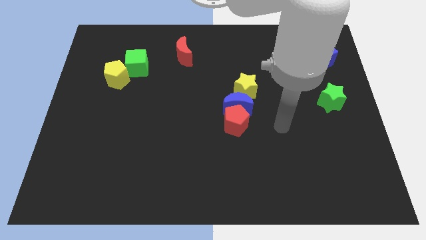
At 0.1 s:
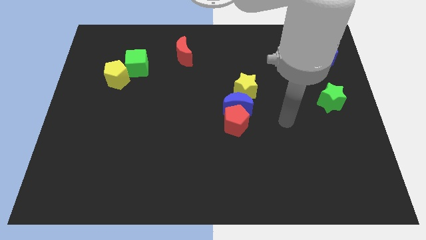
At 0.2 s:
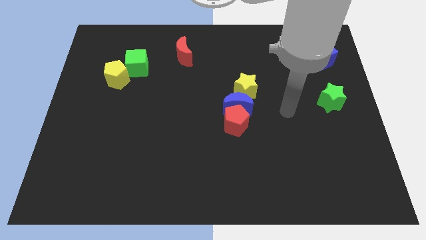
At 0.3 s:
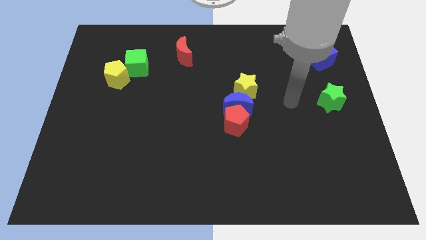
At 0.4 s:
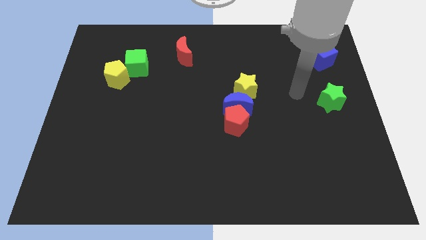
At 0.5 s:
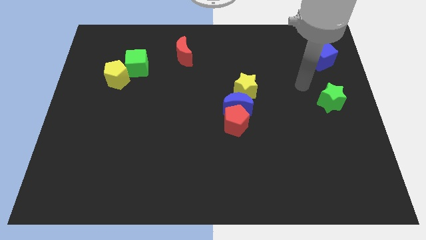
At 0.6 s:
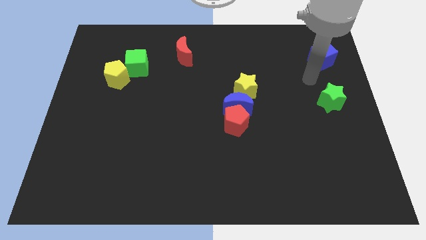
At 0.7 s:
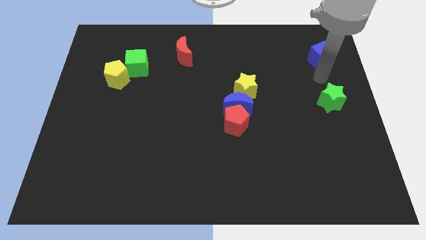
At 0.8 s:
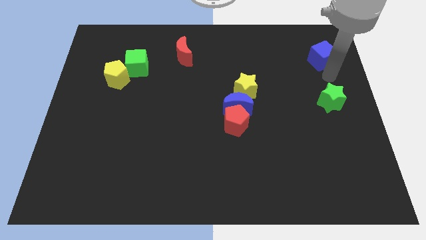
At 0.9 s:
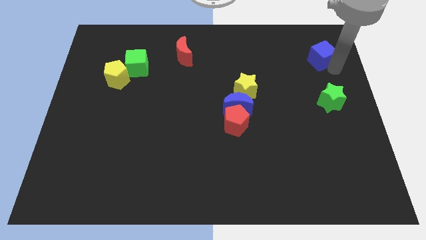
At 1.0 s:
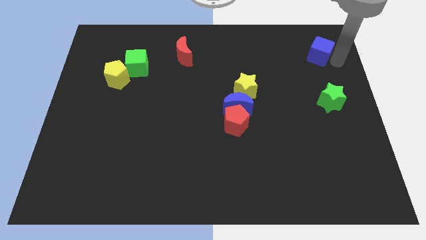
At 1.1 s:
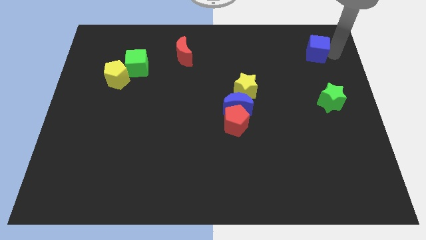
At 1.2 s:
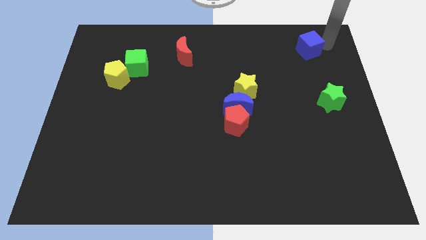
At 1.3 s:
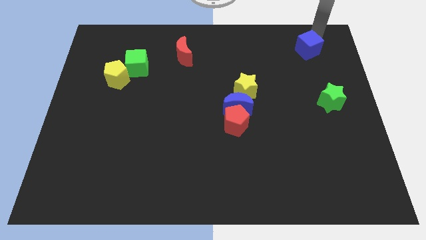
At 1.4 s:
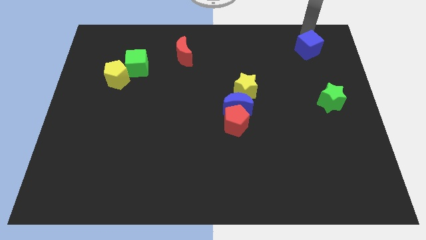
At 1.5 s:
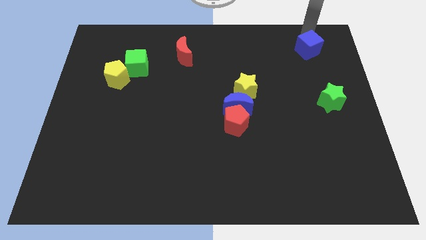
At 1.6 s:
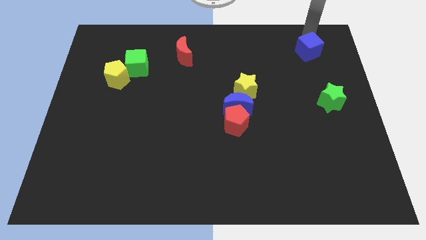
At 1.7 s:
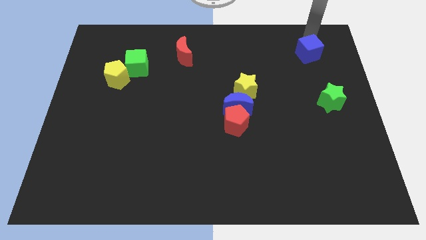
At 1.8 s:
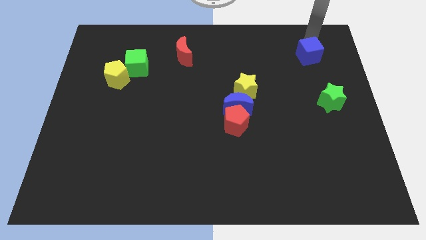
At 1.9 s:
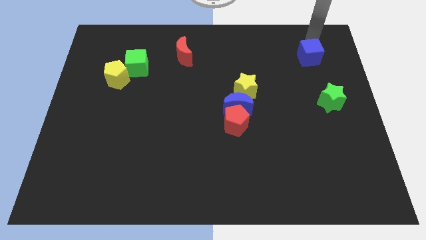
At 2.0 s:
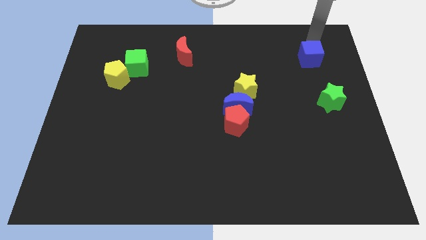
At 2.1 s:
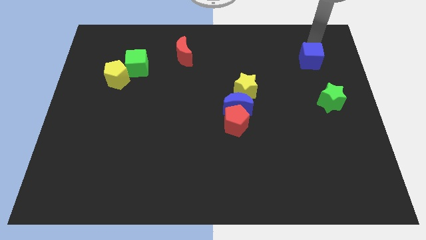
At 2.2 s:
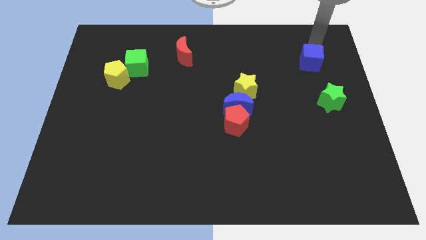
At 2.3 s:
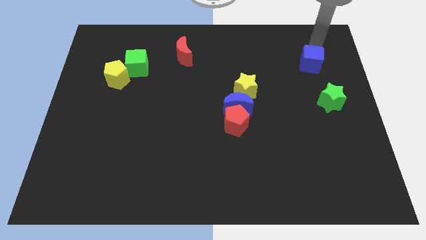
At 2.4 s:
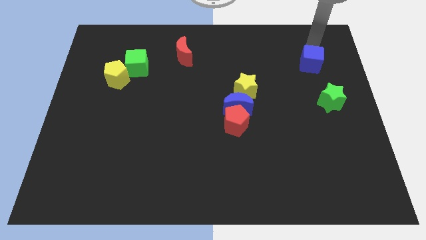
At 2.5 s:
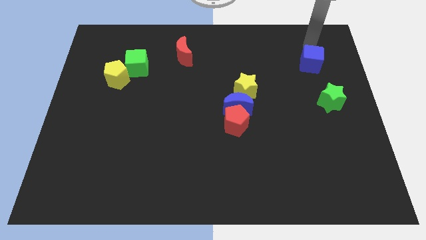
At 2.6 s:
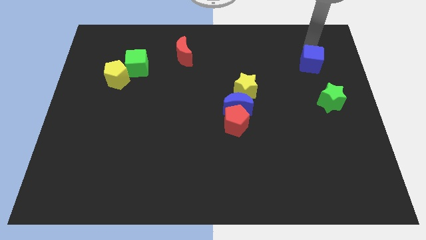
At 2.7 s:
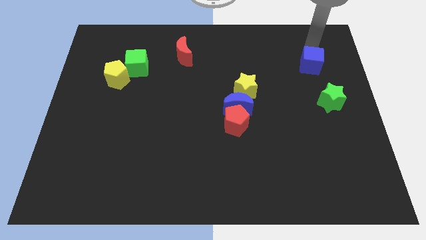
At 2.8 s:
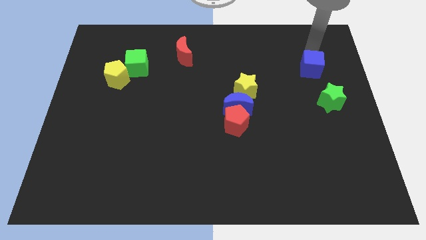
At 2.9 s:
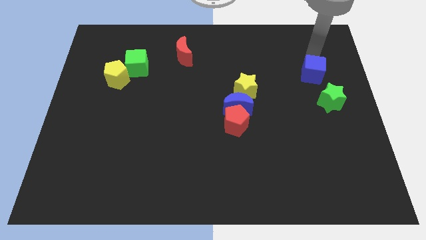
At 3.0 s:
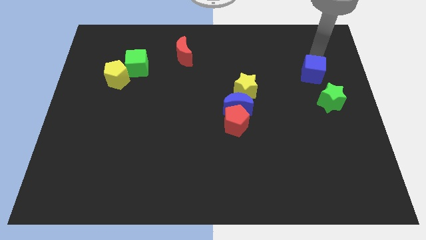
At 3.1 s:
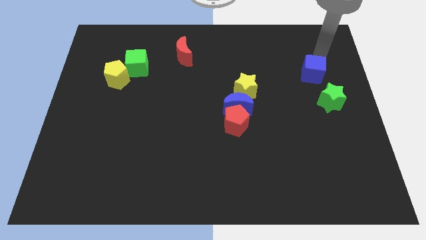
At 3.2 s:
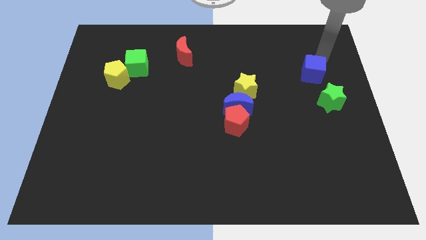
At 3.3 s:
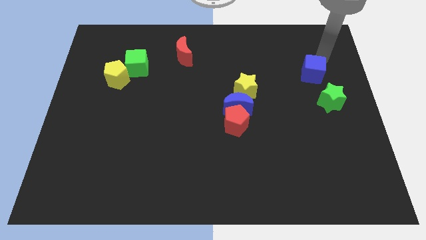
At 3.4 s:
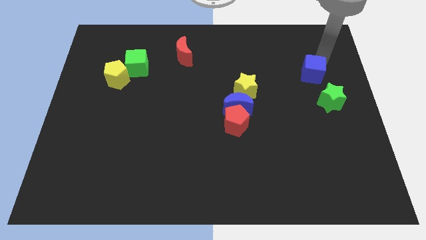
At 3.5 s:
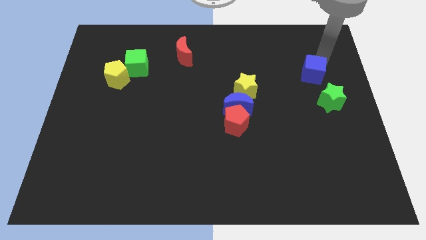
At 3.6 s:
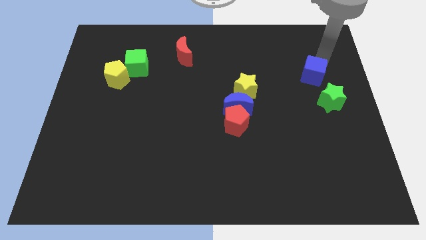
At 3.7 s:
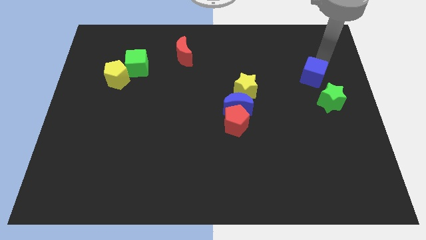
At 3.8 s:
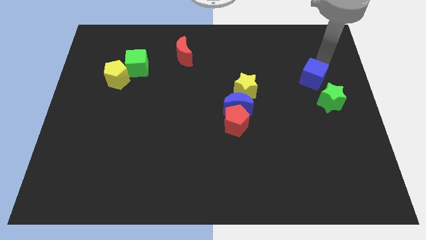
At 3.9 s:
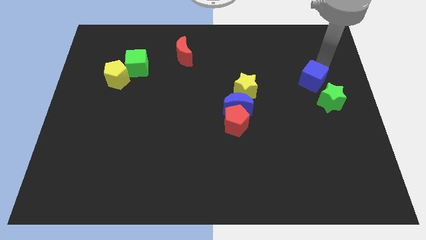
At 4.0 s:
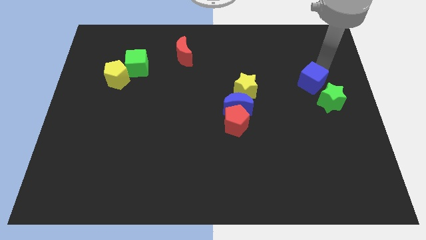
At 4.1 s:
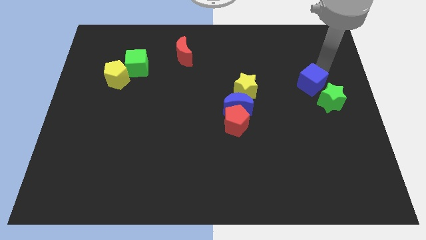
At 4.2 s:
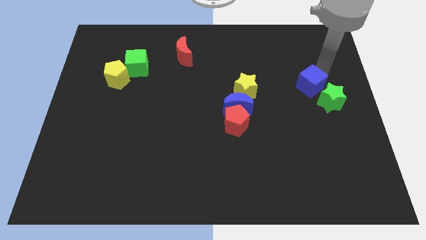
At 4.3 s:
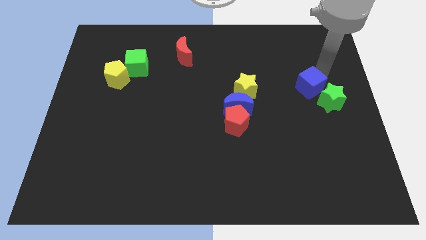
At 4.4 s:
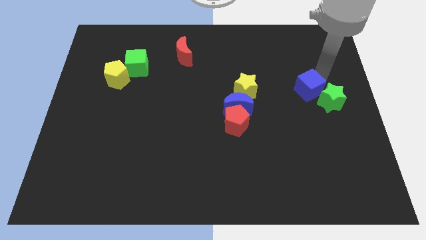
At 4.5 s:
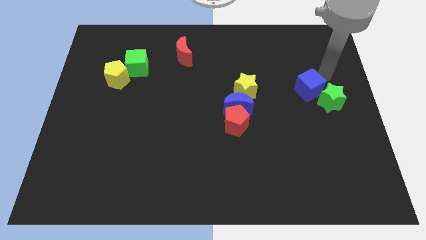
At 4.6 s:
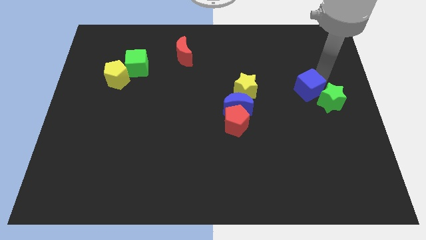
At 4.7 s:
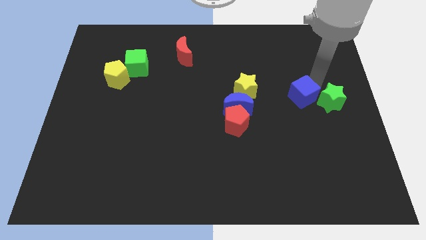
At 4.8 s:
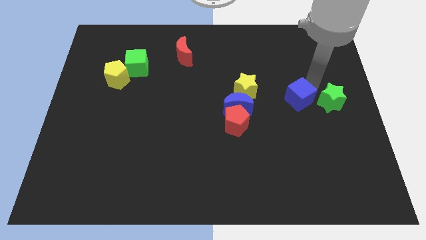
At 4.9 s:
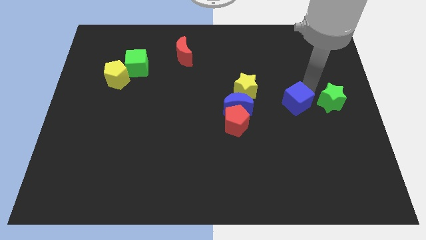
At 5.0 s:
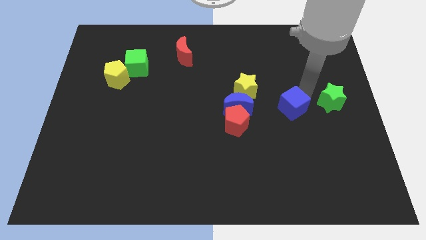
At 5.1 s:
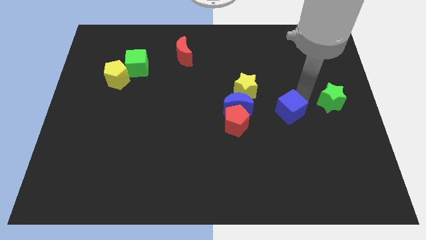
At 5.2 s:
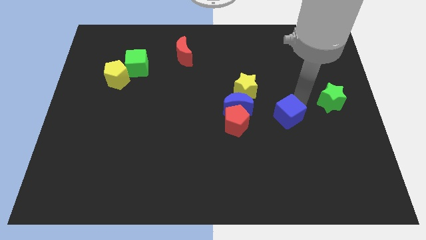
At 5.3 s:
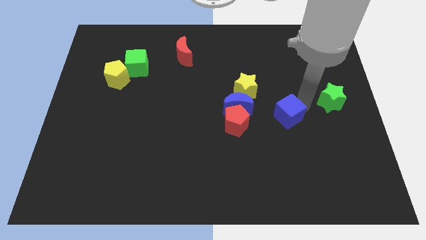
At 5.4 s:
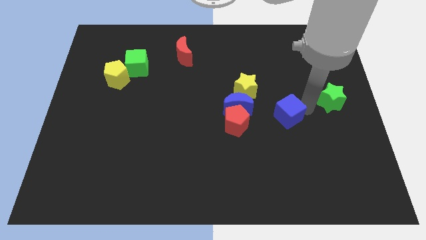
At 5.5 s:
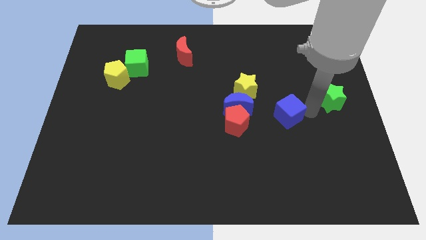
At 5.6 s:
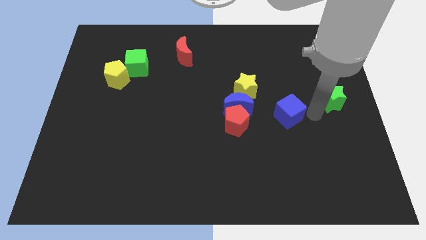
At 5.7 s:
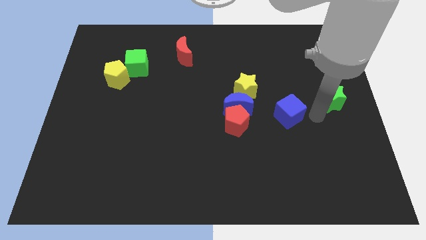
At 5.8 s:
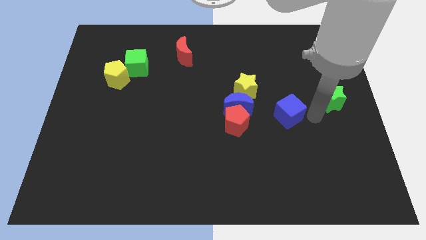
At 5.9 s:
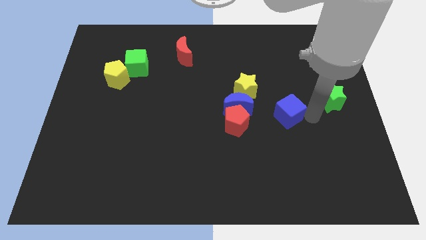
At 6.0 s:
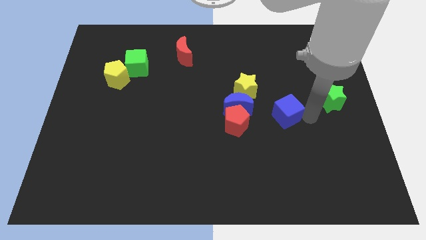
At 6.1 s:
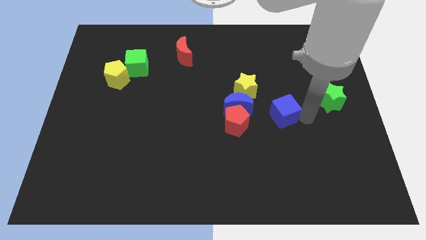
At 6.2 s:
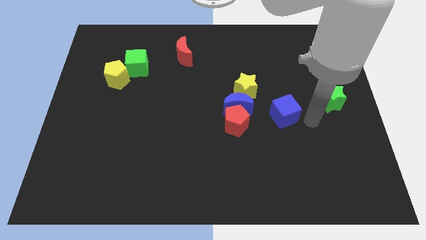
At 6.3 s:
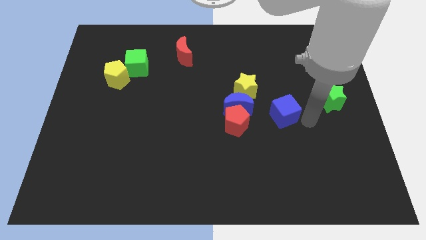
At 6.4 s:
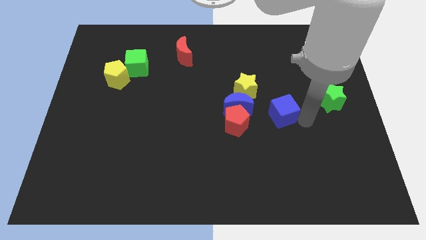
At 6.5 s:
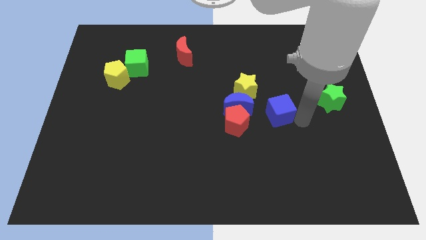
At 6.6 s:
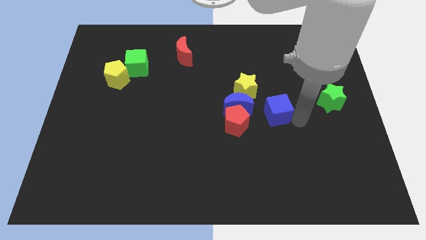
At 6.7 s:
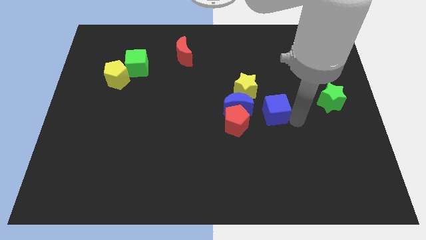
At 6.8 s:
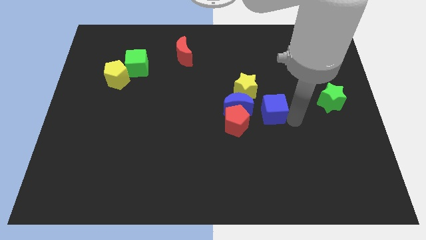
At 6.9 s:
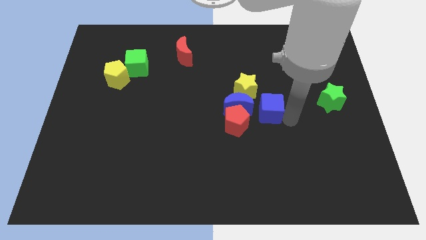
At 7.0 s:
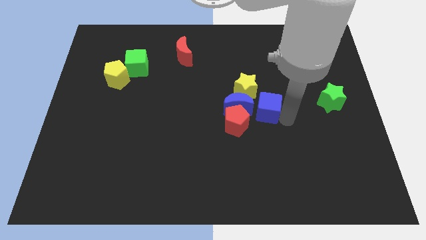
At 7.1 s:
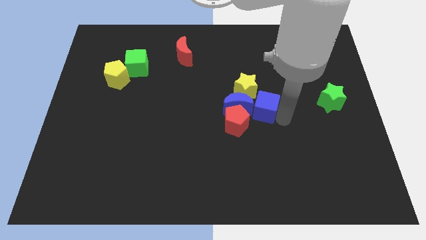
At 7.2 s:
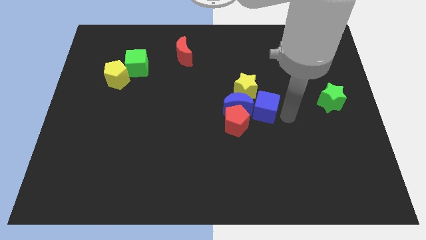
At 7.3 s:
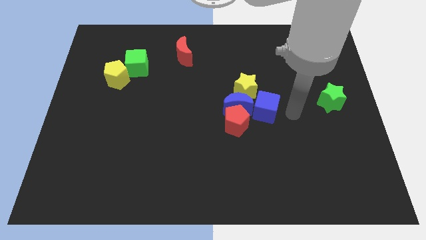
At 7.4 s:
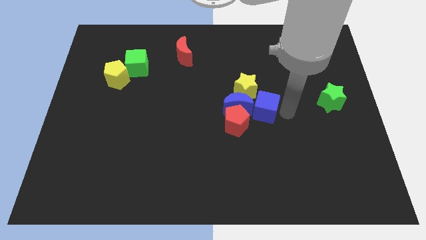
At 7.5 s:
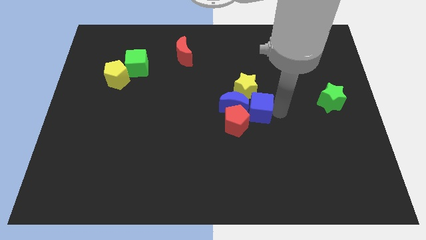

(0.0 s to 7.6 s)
push the blue cube to the blue moon
